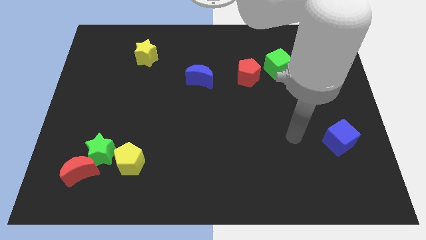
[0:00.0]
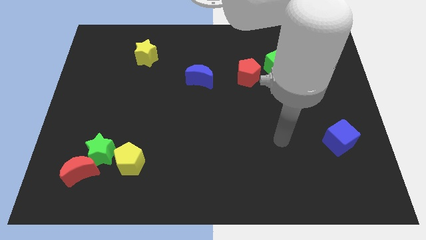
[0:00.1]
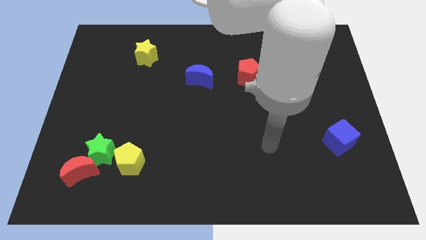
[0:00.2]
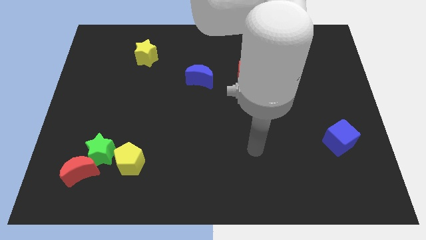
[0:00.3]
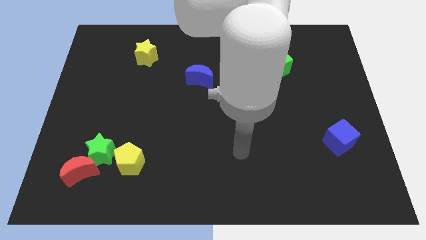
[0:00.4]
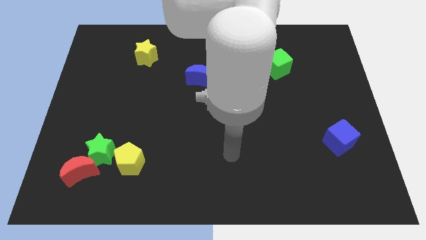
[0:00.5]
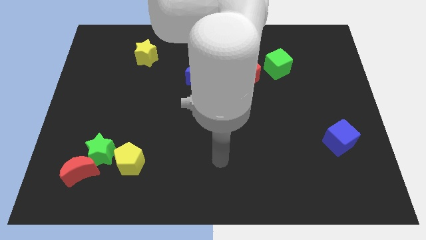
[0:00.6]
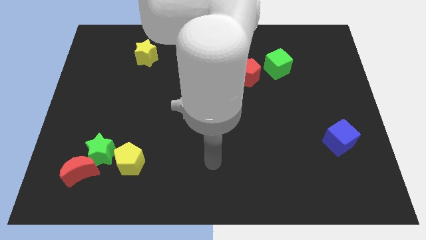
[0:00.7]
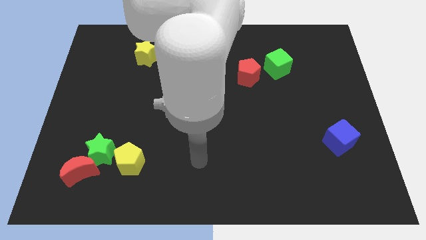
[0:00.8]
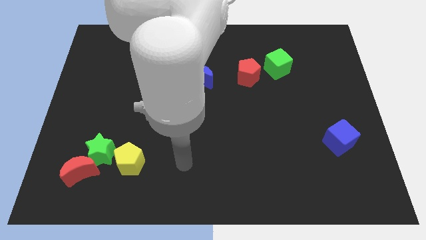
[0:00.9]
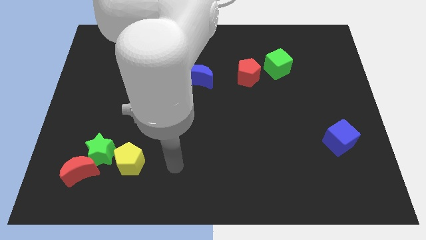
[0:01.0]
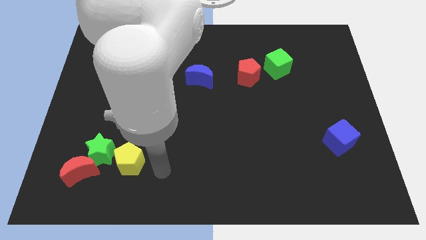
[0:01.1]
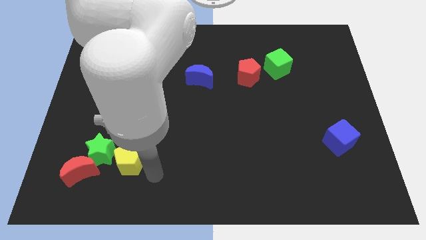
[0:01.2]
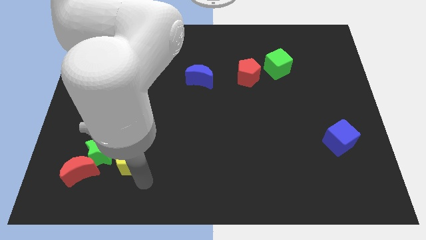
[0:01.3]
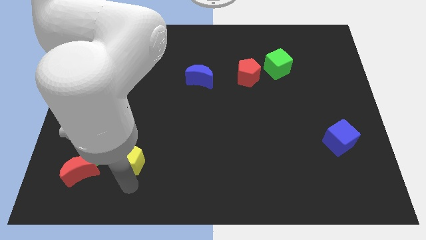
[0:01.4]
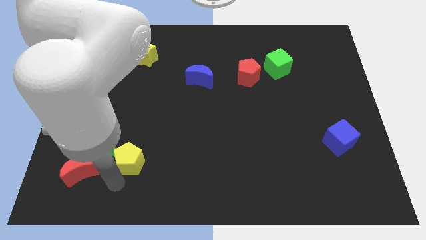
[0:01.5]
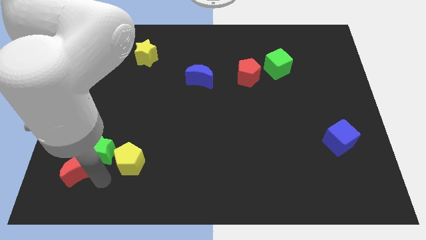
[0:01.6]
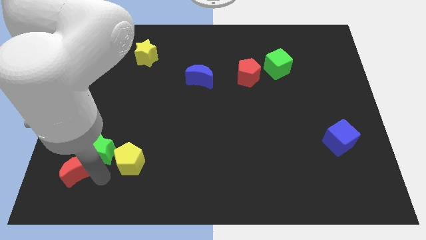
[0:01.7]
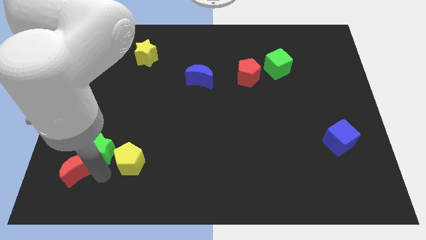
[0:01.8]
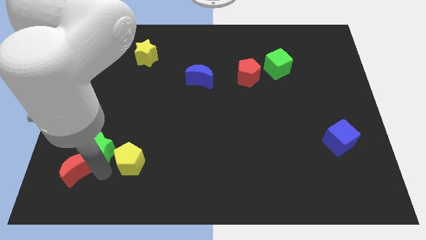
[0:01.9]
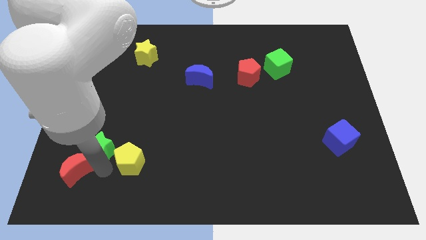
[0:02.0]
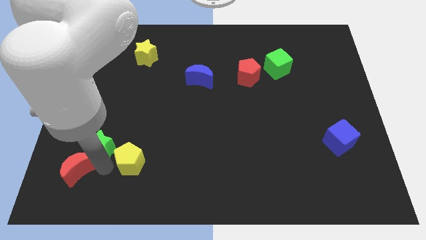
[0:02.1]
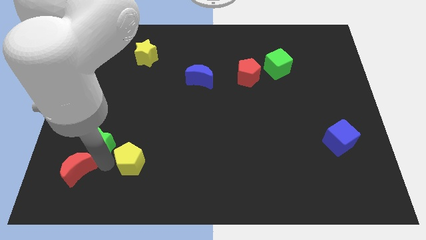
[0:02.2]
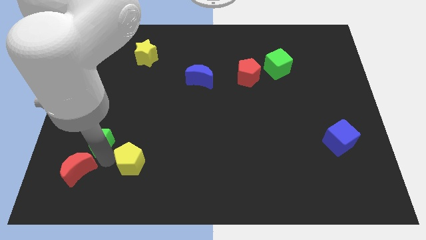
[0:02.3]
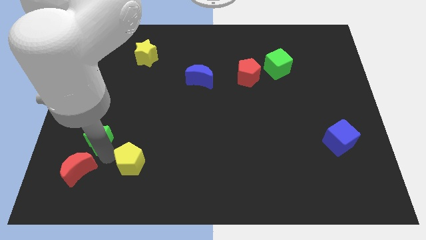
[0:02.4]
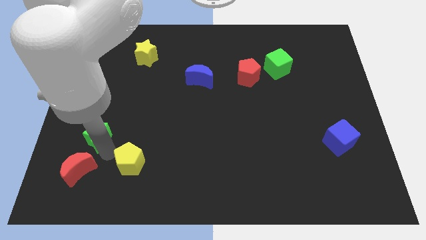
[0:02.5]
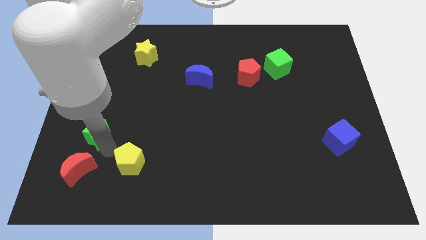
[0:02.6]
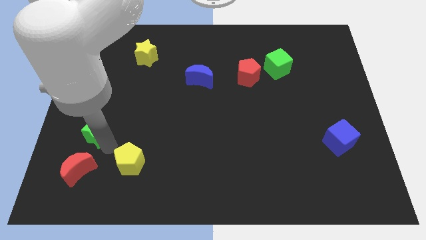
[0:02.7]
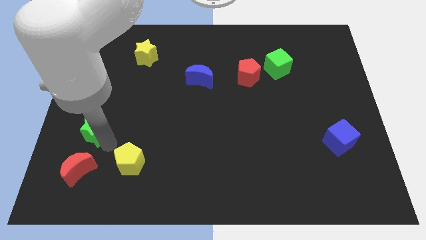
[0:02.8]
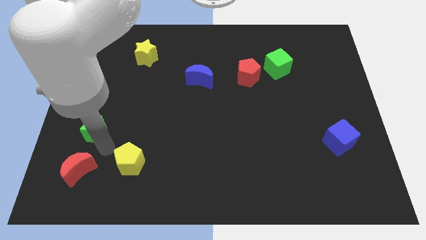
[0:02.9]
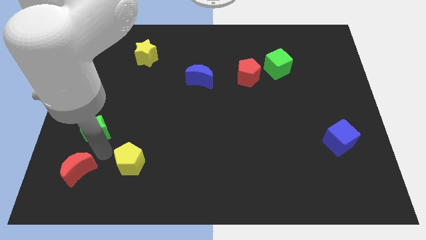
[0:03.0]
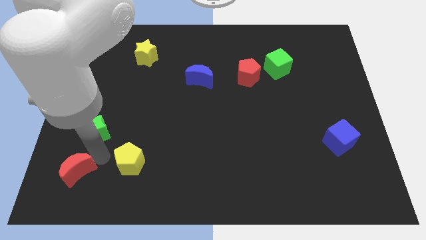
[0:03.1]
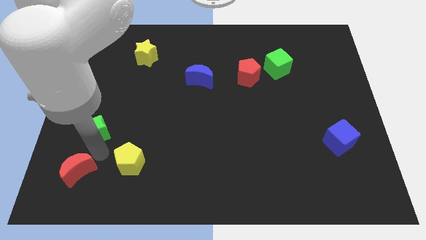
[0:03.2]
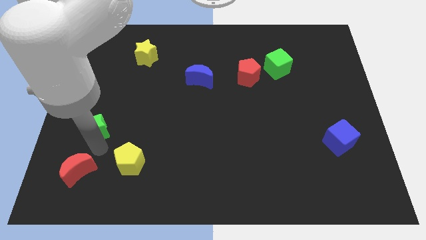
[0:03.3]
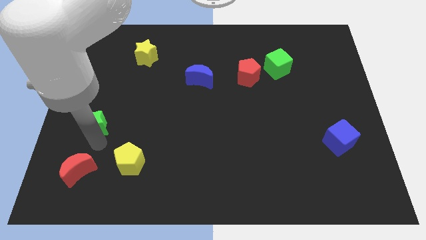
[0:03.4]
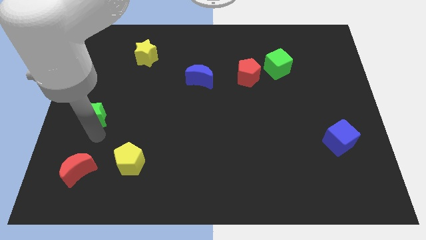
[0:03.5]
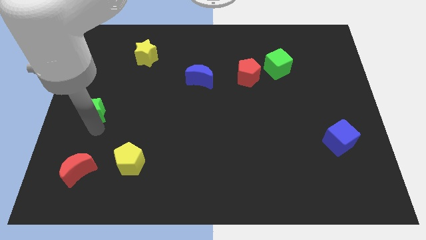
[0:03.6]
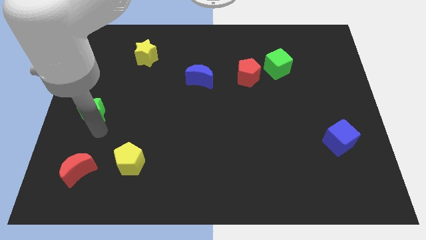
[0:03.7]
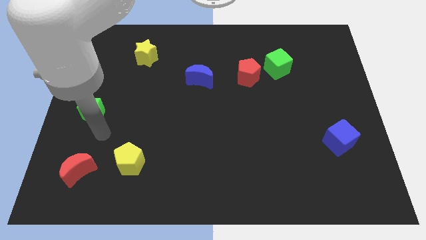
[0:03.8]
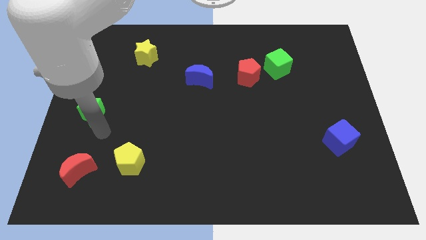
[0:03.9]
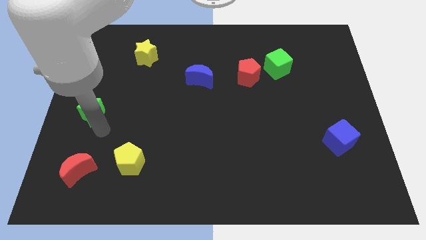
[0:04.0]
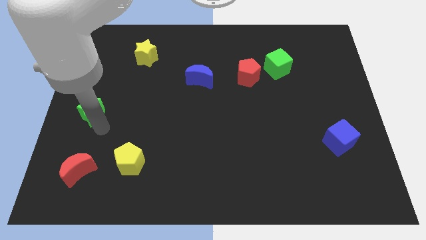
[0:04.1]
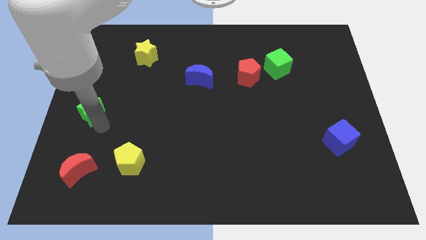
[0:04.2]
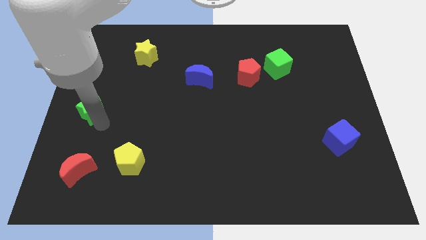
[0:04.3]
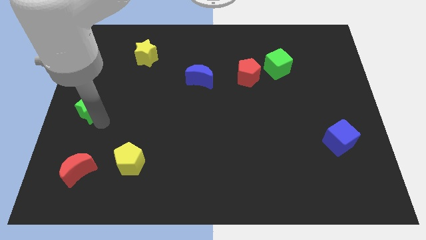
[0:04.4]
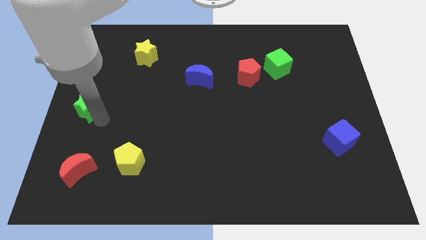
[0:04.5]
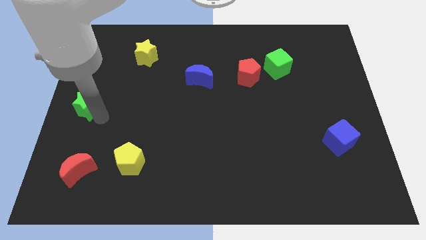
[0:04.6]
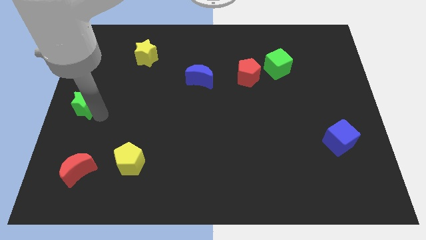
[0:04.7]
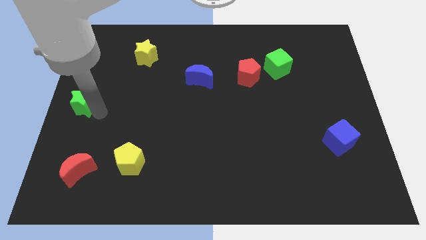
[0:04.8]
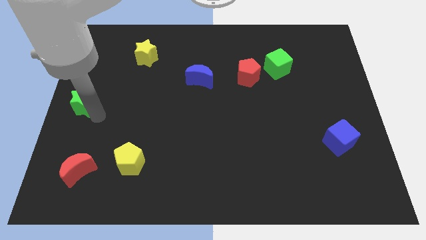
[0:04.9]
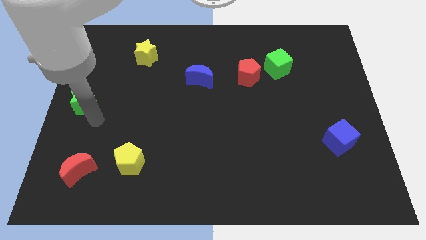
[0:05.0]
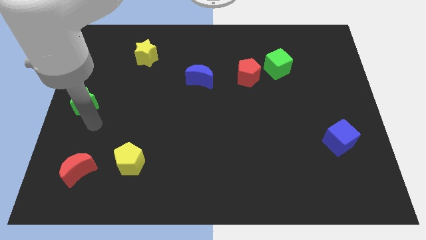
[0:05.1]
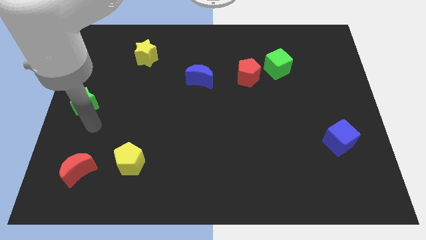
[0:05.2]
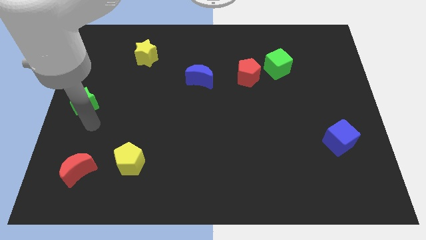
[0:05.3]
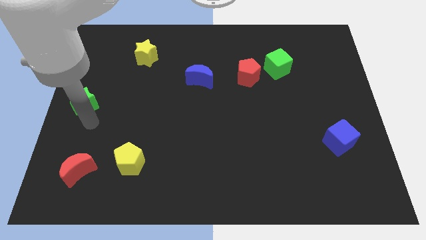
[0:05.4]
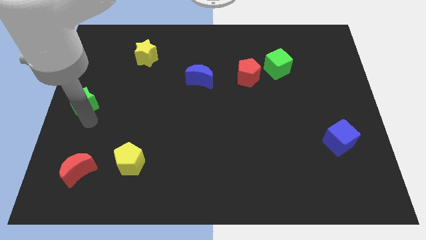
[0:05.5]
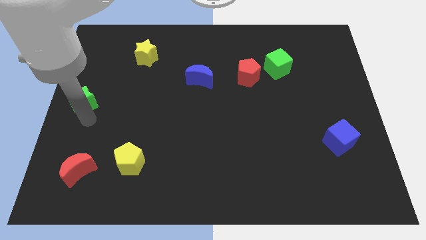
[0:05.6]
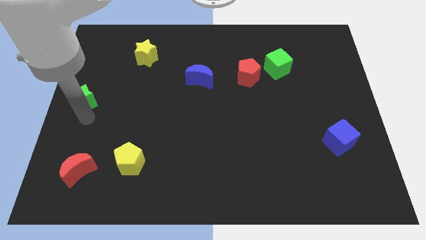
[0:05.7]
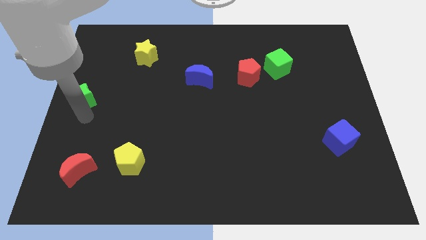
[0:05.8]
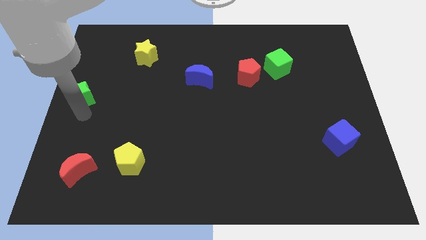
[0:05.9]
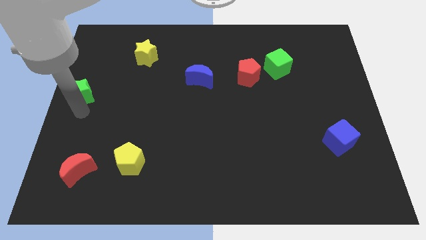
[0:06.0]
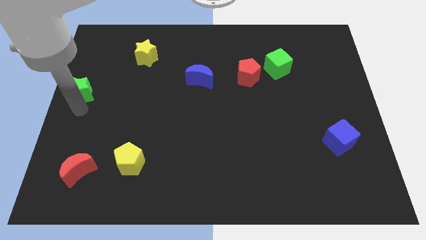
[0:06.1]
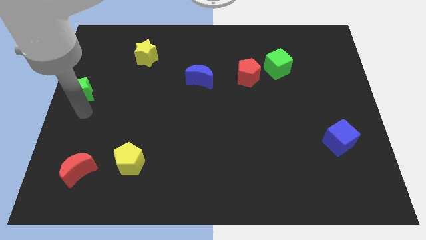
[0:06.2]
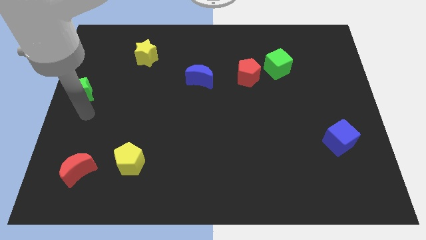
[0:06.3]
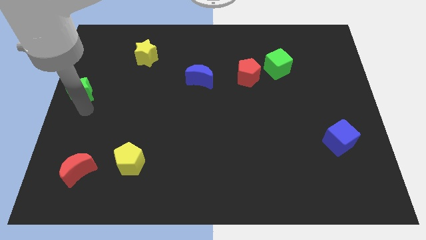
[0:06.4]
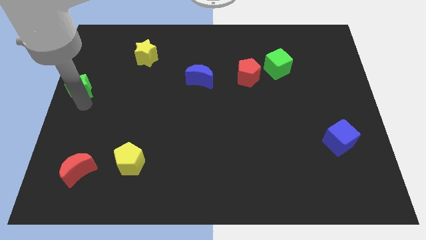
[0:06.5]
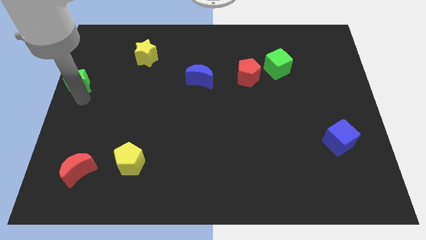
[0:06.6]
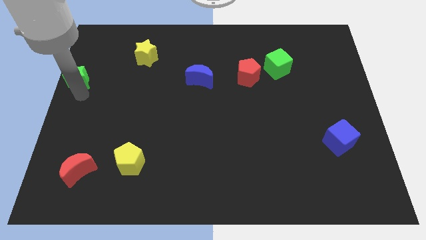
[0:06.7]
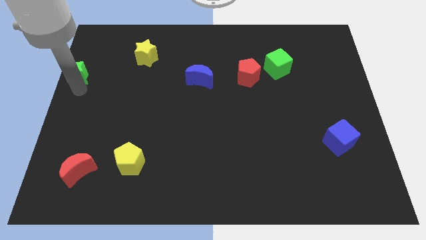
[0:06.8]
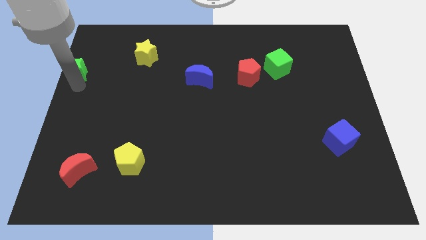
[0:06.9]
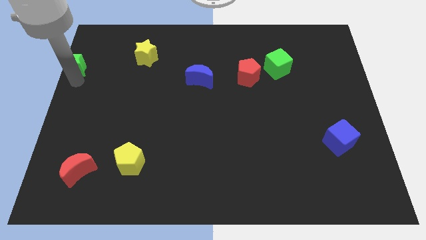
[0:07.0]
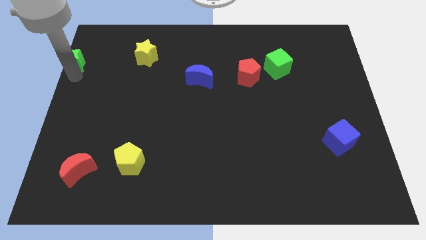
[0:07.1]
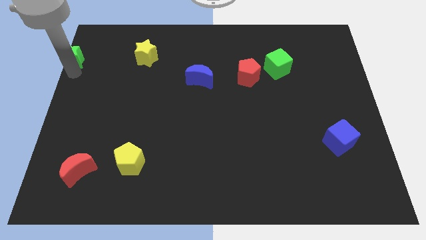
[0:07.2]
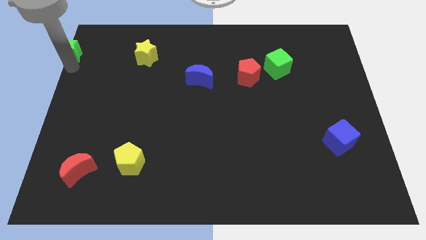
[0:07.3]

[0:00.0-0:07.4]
slide the green star to the top left corner
